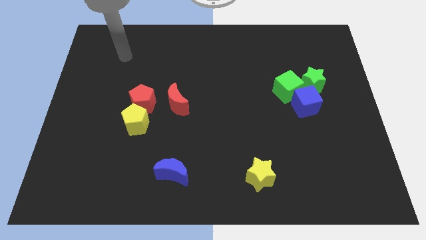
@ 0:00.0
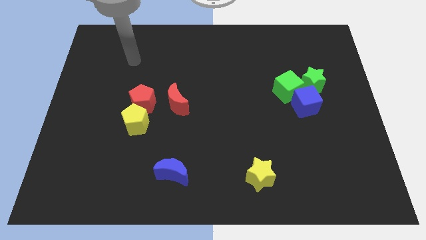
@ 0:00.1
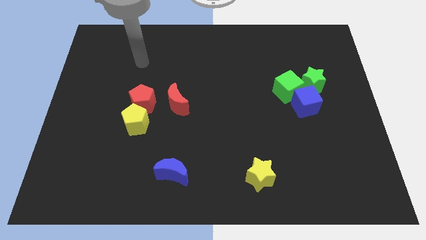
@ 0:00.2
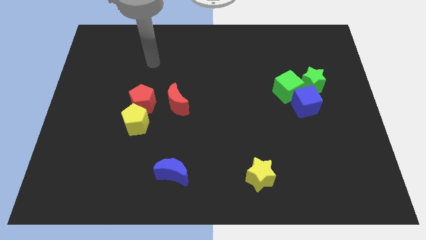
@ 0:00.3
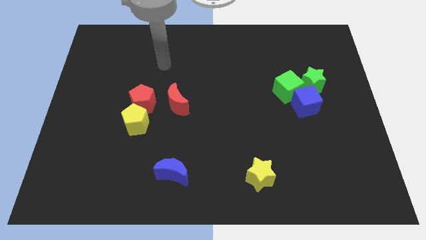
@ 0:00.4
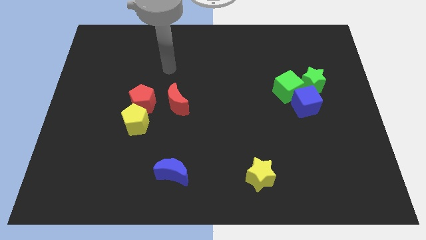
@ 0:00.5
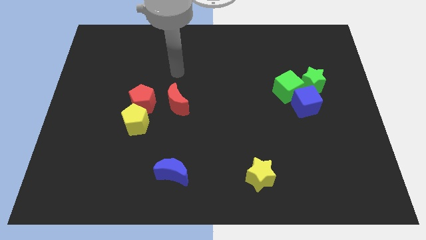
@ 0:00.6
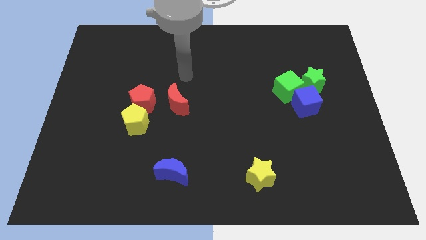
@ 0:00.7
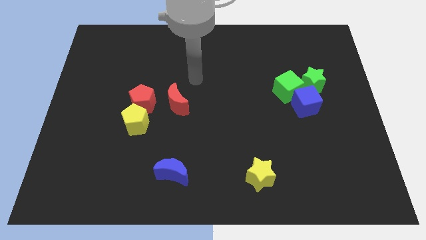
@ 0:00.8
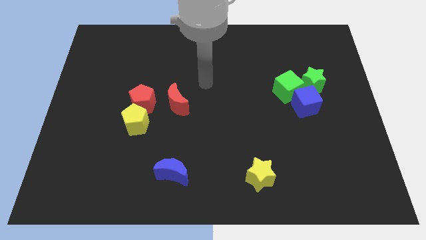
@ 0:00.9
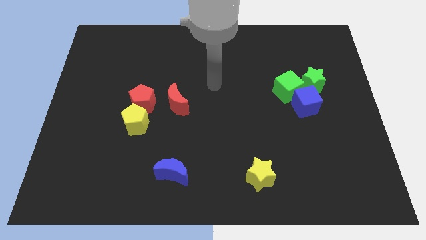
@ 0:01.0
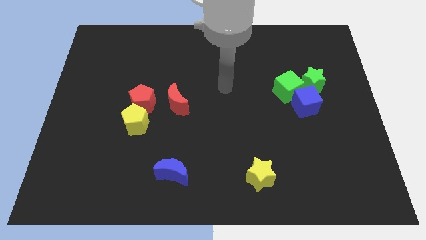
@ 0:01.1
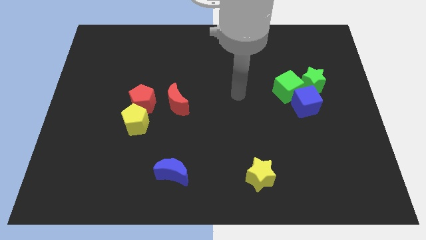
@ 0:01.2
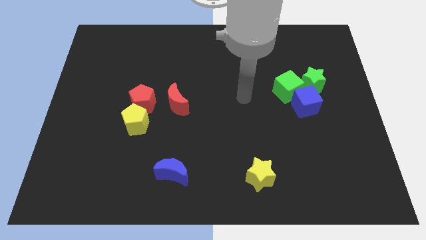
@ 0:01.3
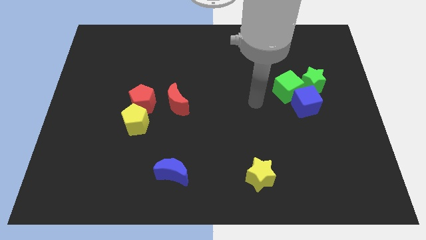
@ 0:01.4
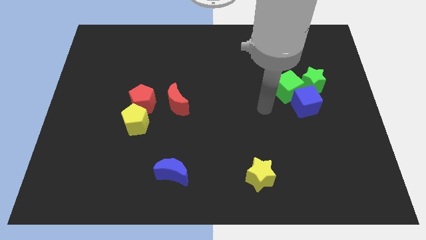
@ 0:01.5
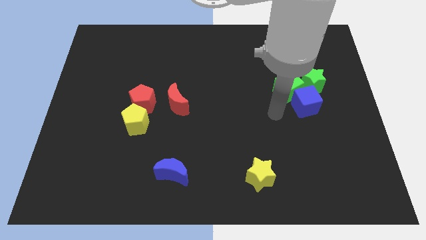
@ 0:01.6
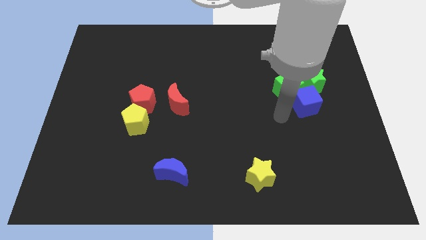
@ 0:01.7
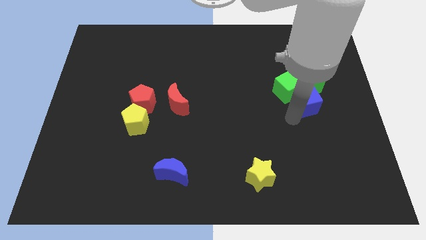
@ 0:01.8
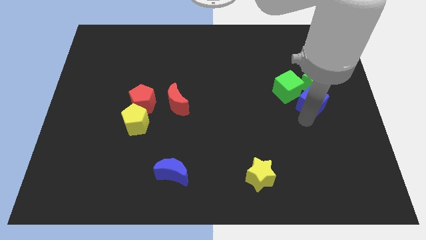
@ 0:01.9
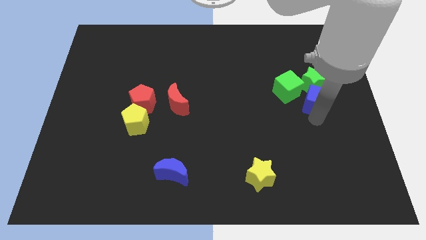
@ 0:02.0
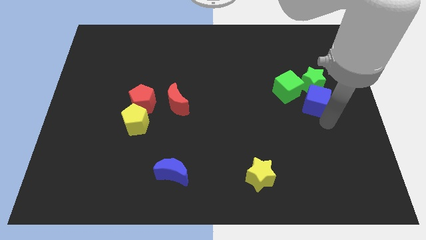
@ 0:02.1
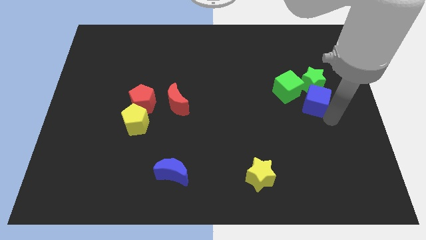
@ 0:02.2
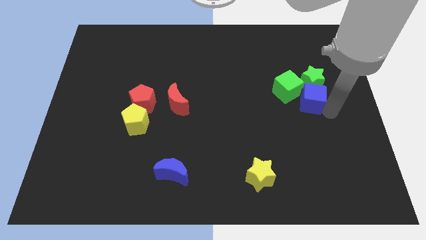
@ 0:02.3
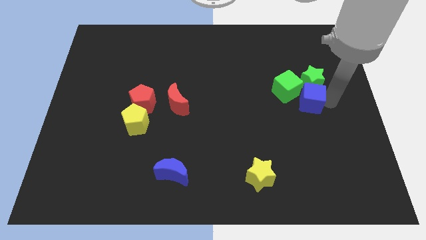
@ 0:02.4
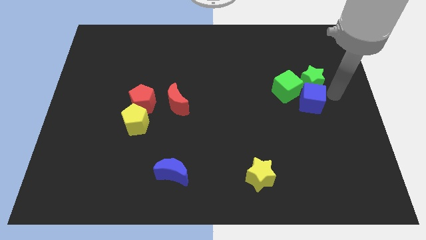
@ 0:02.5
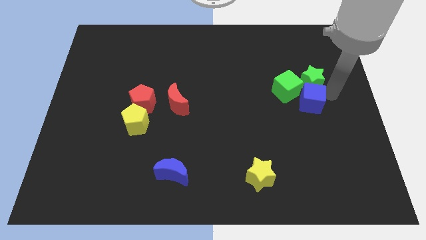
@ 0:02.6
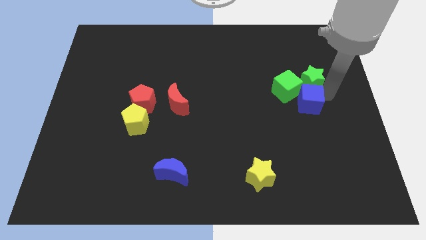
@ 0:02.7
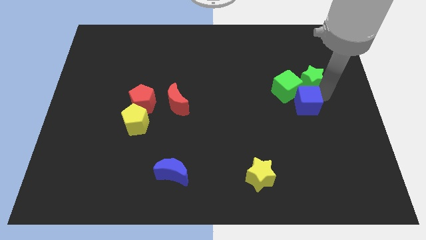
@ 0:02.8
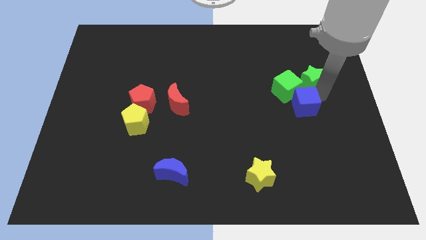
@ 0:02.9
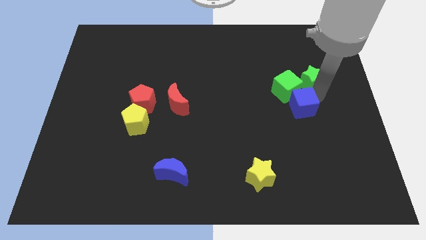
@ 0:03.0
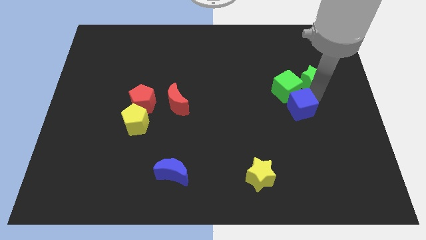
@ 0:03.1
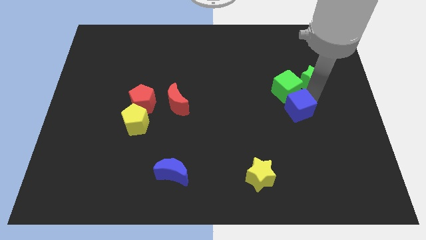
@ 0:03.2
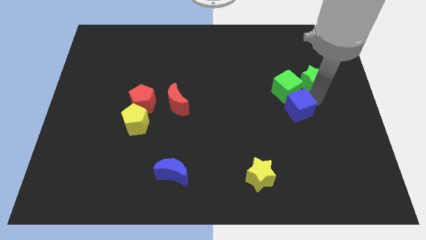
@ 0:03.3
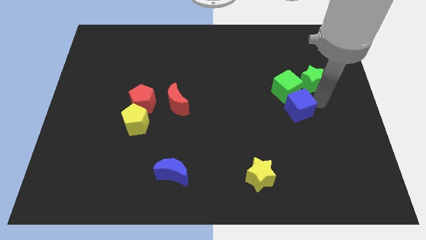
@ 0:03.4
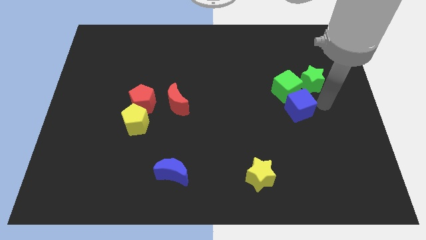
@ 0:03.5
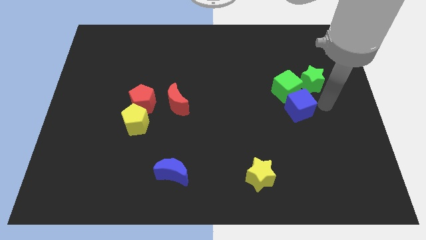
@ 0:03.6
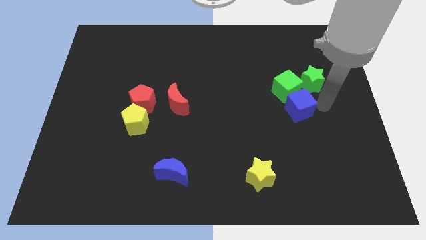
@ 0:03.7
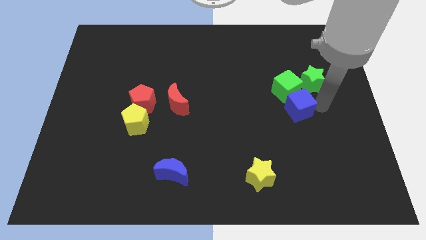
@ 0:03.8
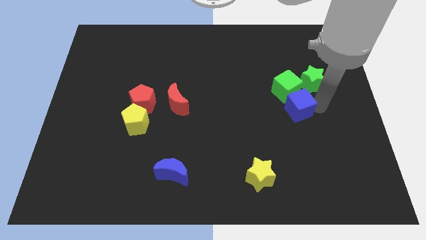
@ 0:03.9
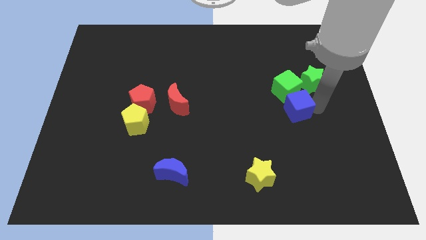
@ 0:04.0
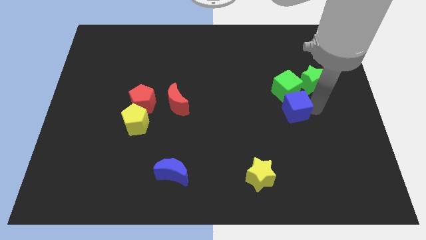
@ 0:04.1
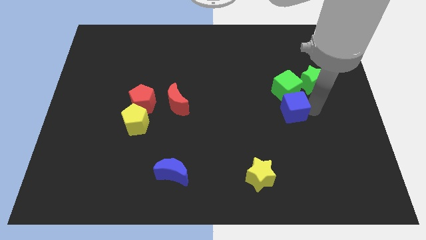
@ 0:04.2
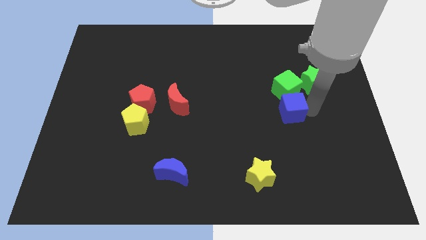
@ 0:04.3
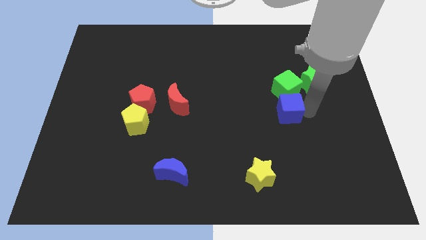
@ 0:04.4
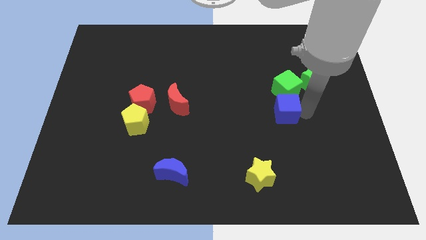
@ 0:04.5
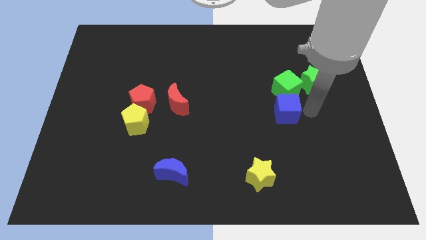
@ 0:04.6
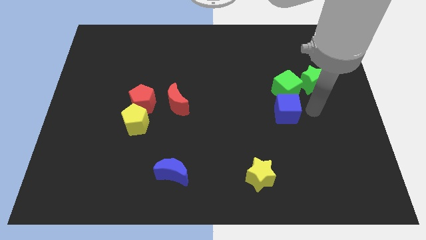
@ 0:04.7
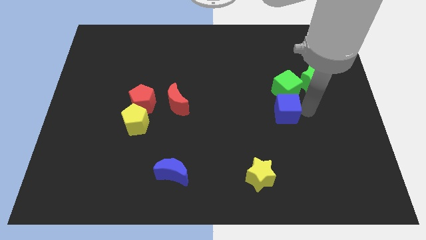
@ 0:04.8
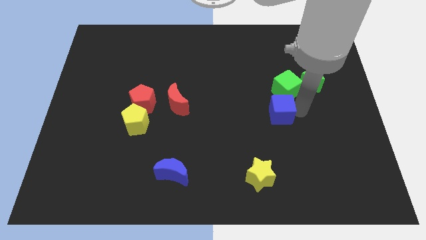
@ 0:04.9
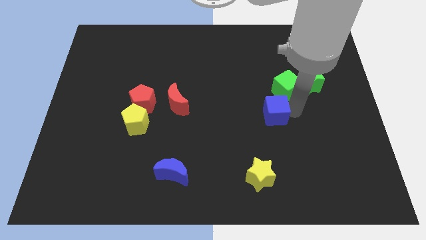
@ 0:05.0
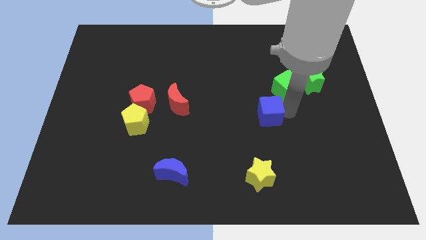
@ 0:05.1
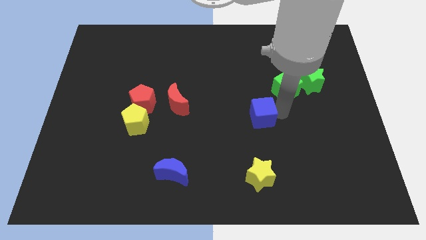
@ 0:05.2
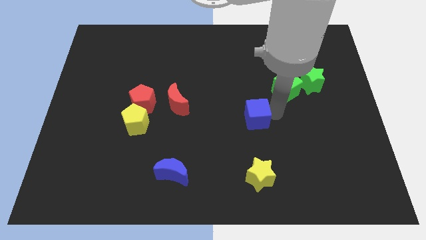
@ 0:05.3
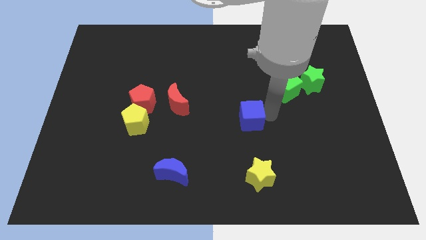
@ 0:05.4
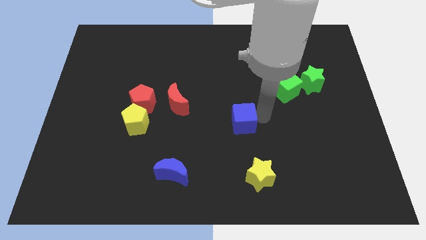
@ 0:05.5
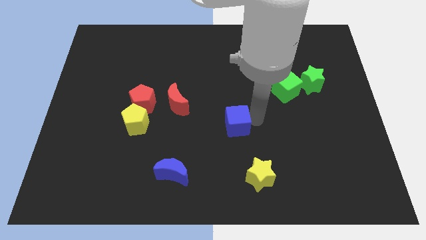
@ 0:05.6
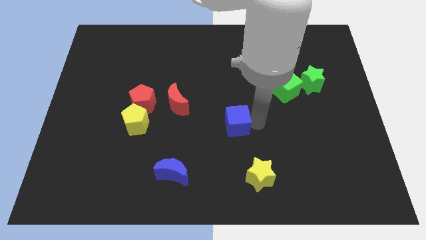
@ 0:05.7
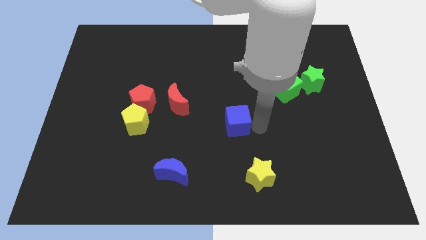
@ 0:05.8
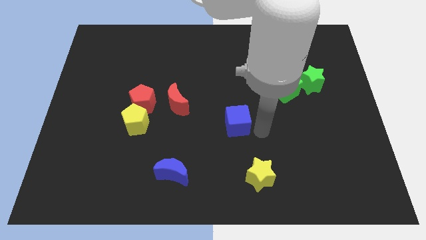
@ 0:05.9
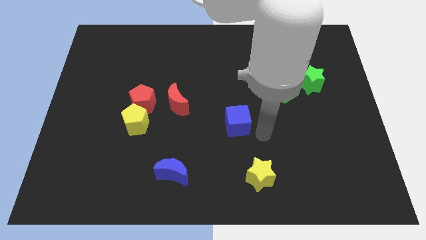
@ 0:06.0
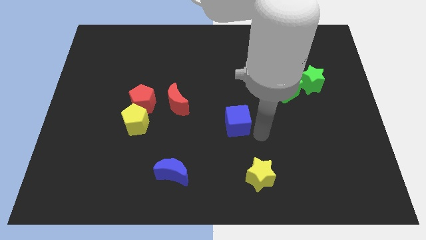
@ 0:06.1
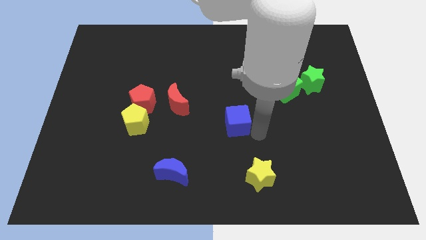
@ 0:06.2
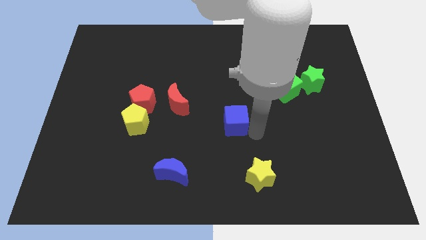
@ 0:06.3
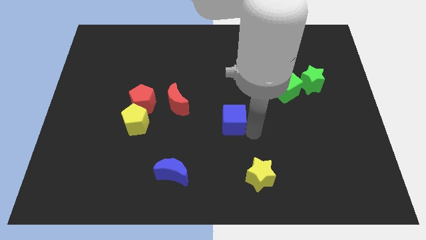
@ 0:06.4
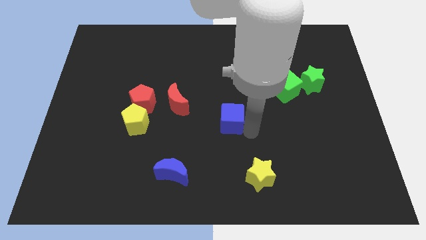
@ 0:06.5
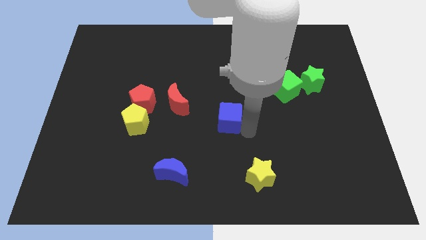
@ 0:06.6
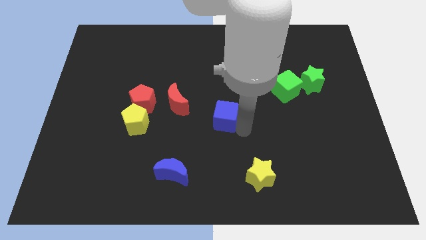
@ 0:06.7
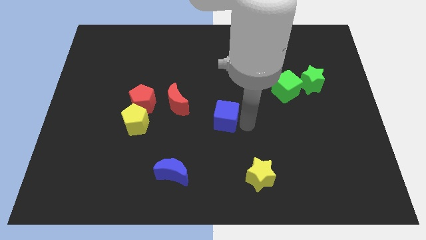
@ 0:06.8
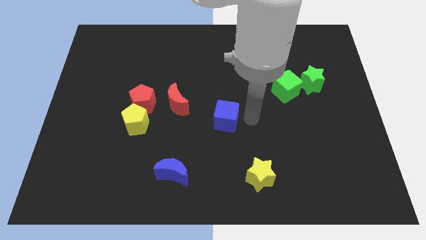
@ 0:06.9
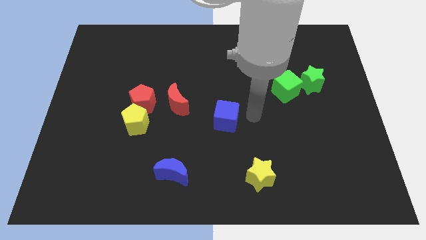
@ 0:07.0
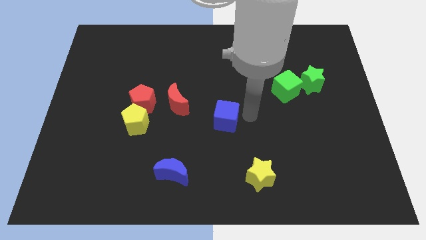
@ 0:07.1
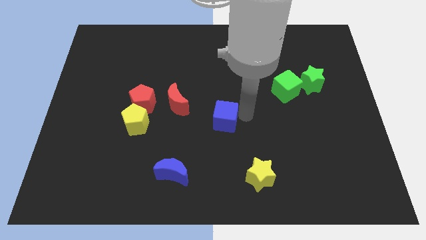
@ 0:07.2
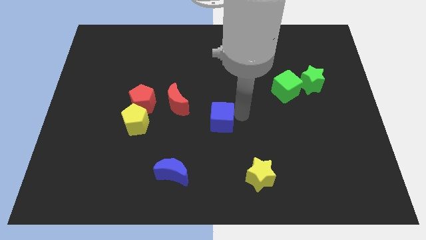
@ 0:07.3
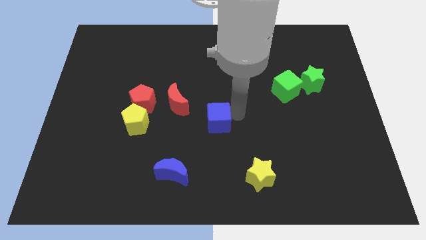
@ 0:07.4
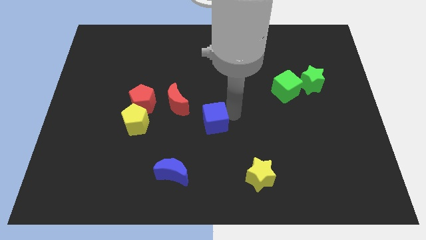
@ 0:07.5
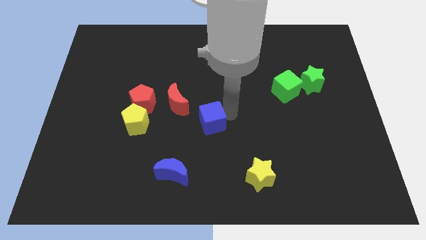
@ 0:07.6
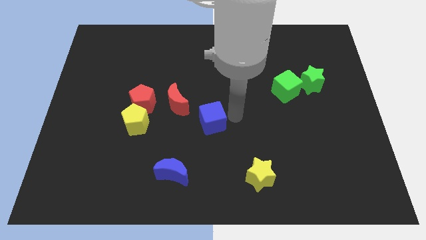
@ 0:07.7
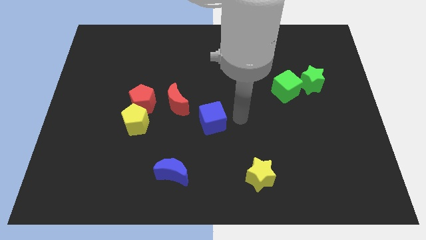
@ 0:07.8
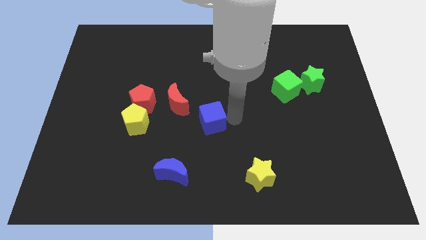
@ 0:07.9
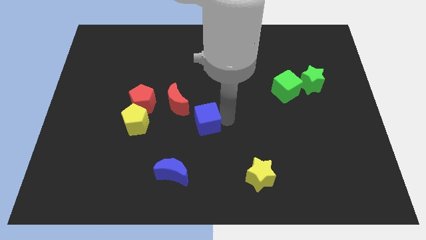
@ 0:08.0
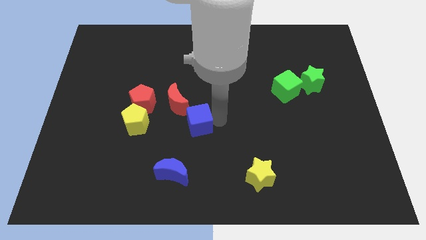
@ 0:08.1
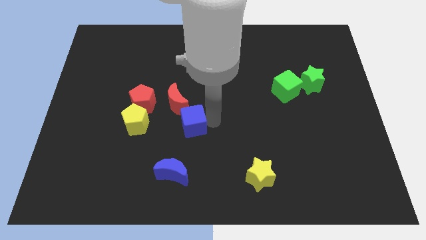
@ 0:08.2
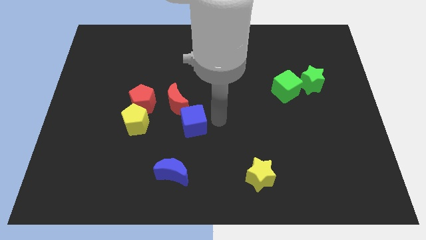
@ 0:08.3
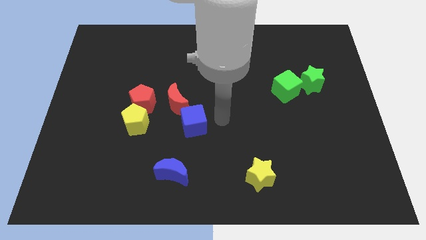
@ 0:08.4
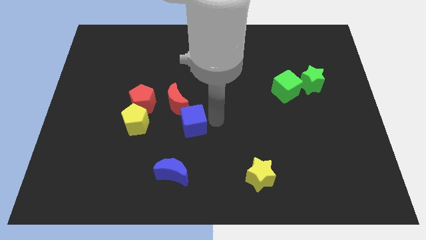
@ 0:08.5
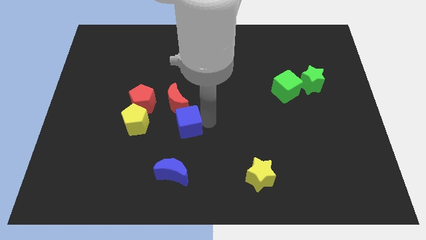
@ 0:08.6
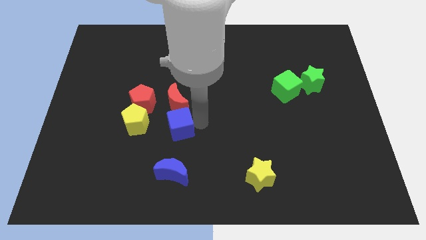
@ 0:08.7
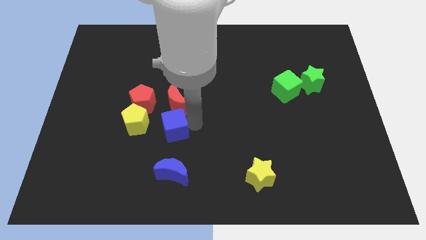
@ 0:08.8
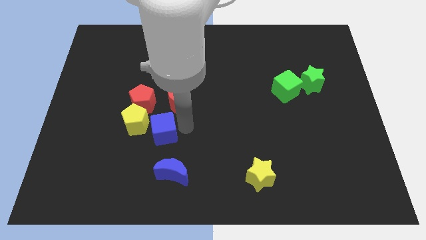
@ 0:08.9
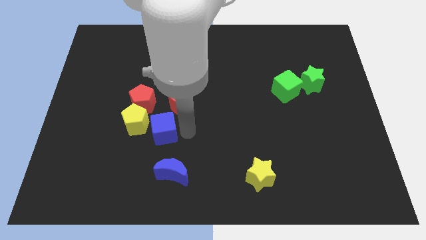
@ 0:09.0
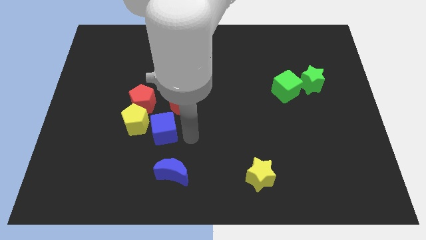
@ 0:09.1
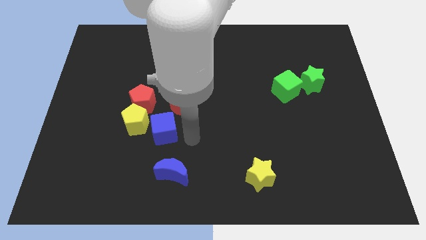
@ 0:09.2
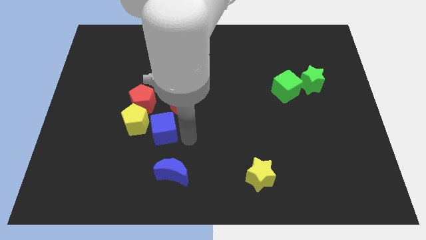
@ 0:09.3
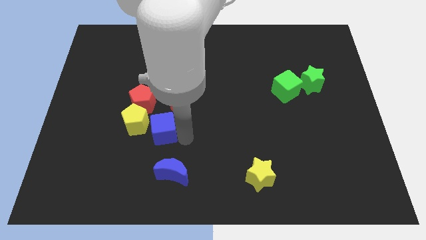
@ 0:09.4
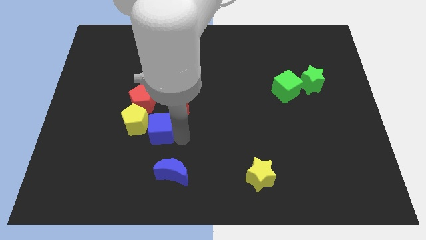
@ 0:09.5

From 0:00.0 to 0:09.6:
slide the blue cube towards the yellow pentagon
